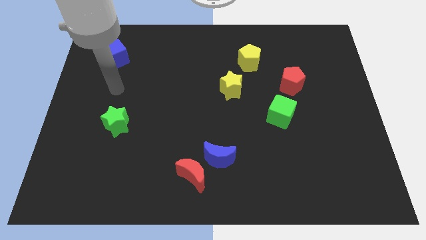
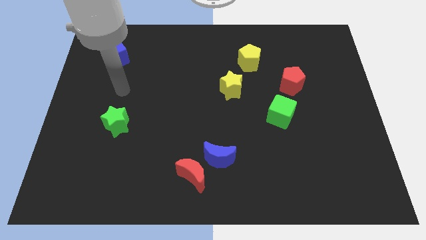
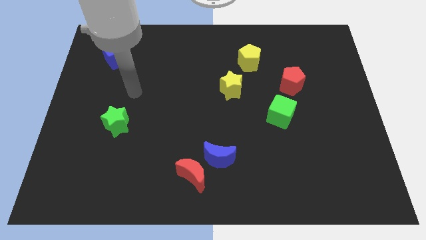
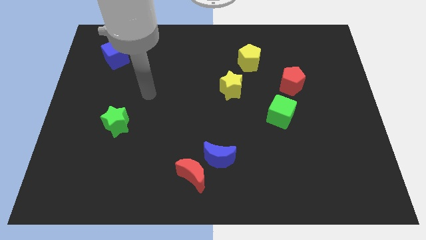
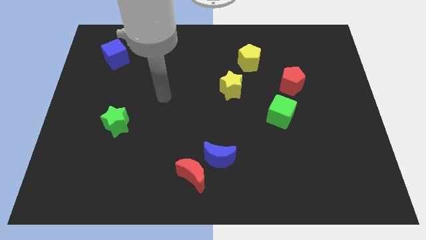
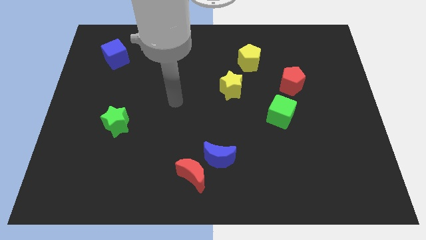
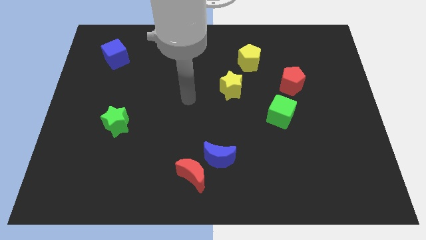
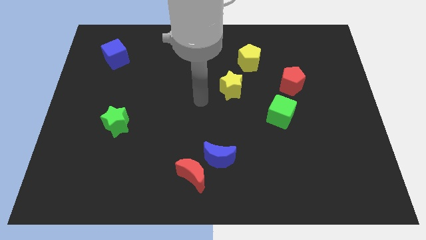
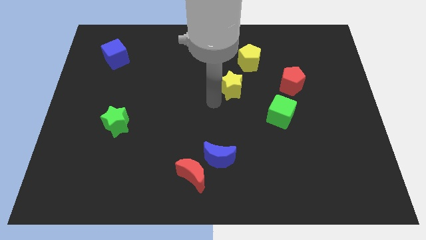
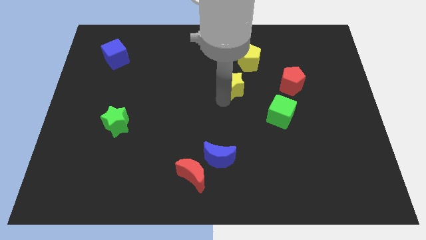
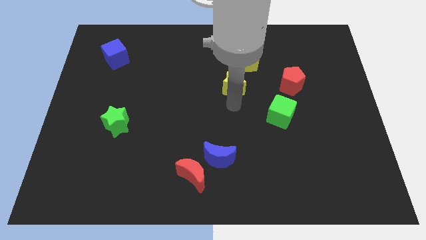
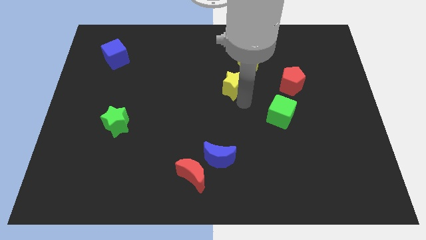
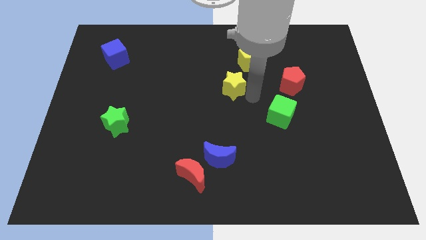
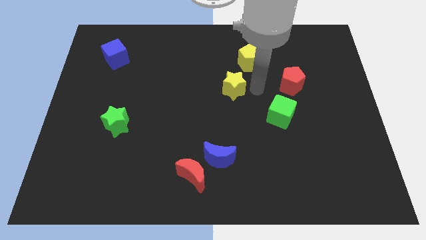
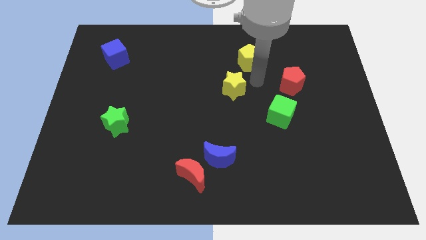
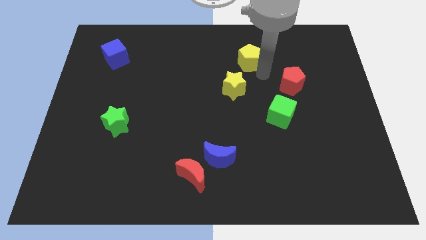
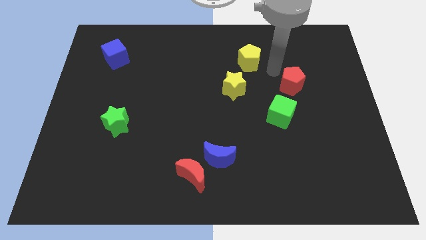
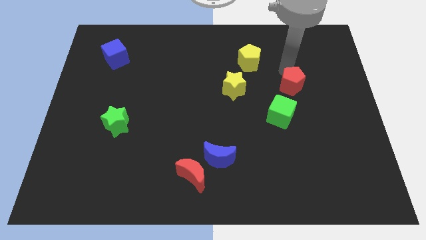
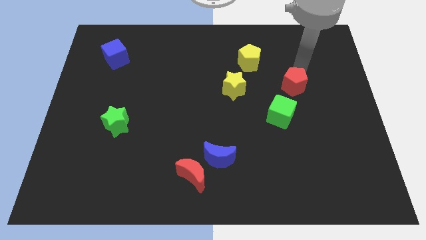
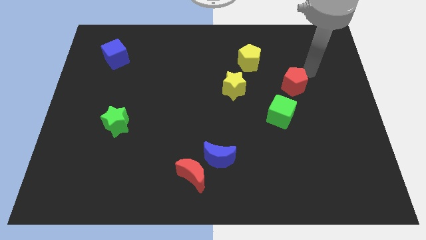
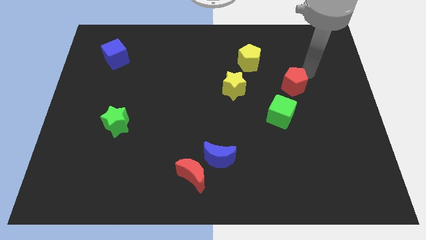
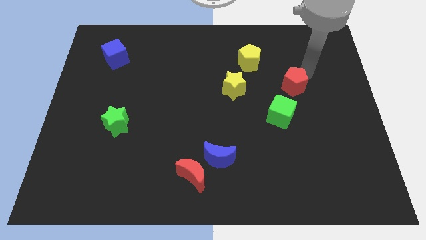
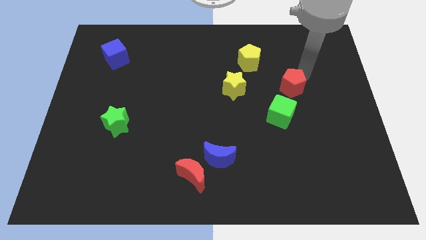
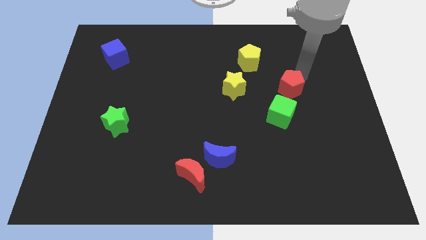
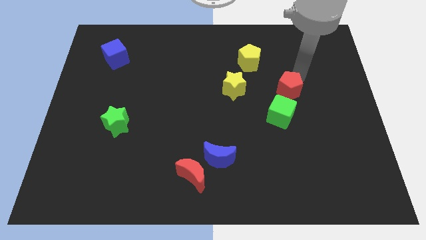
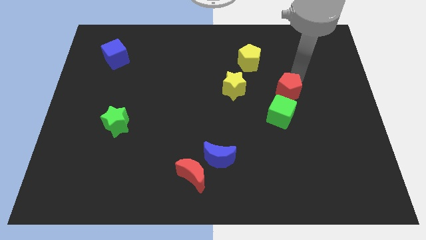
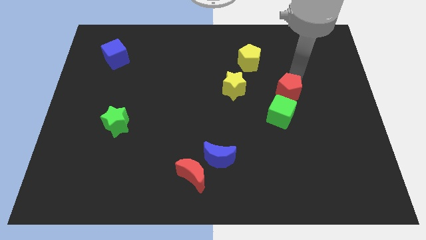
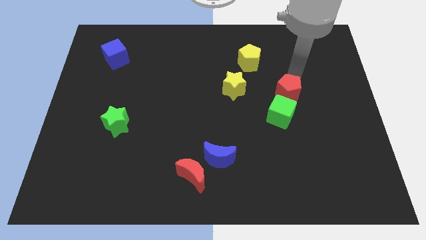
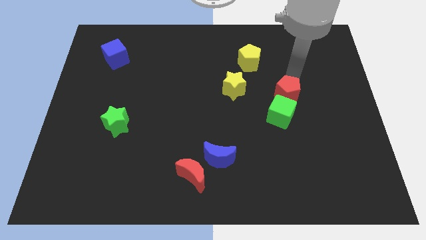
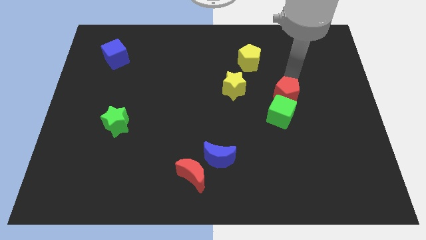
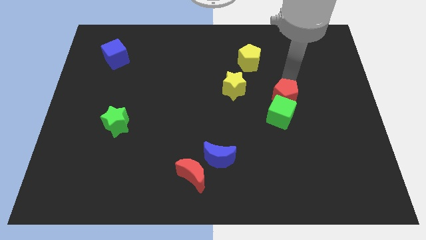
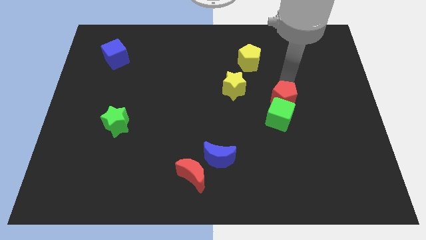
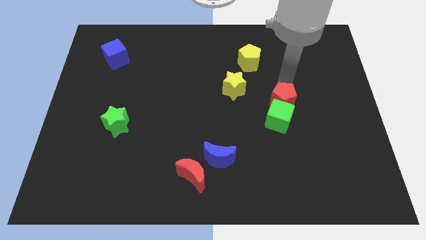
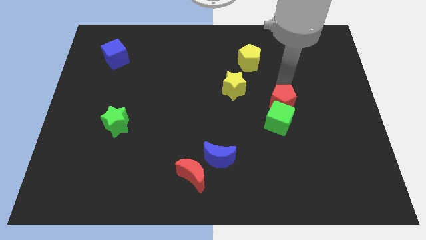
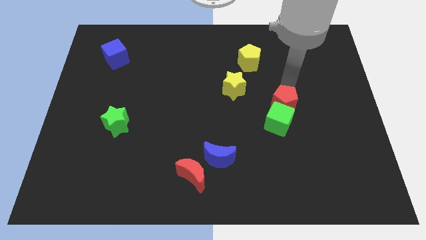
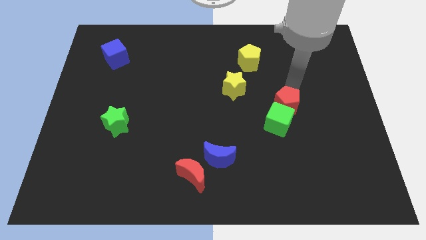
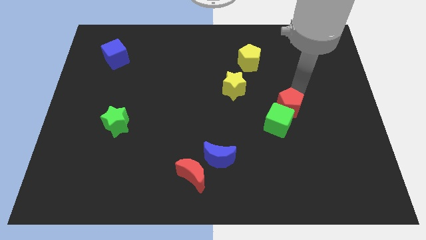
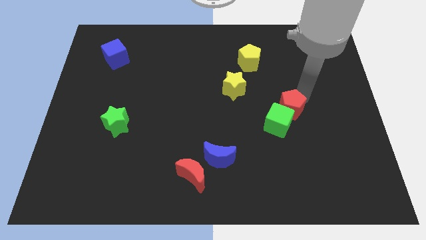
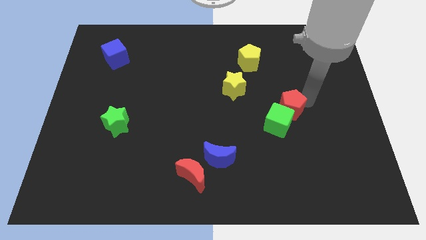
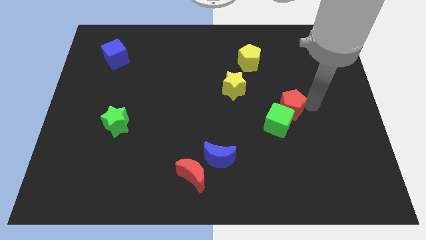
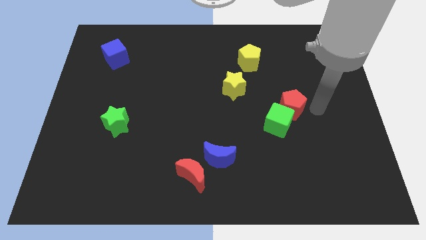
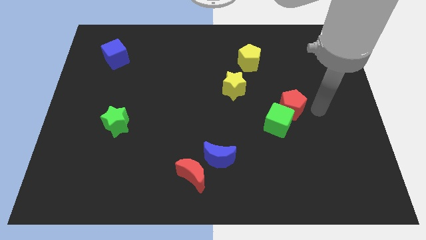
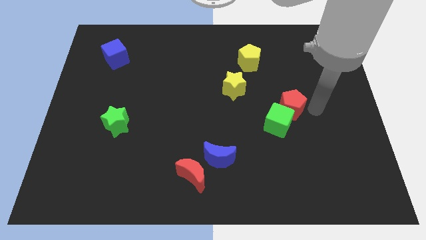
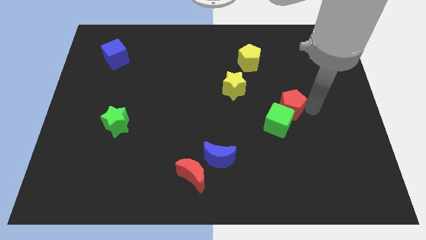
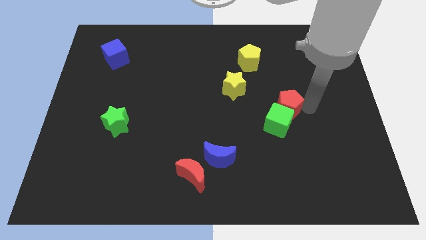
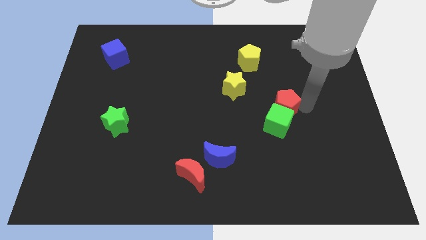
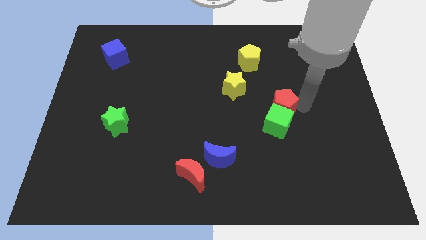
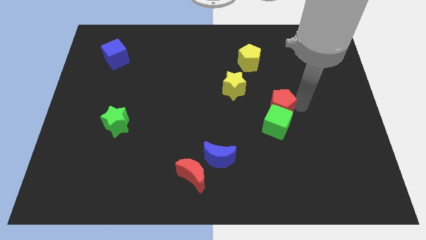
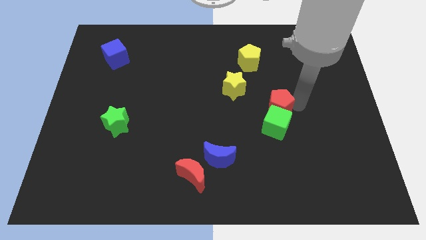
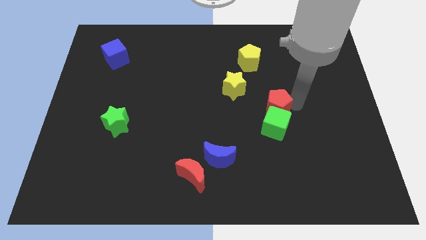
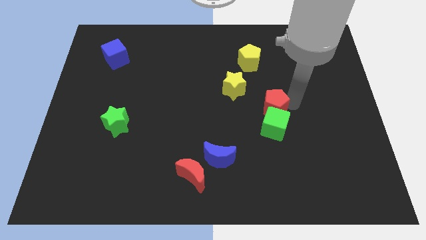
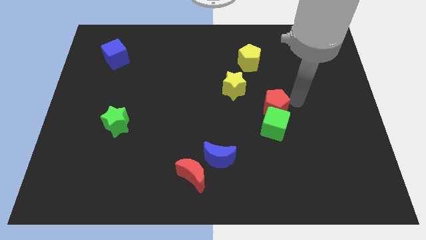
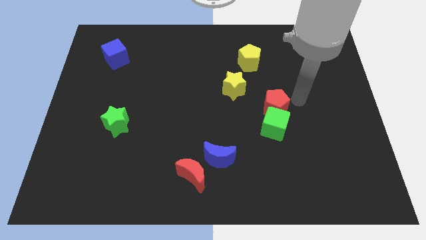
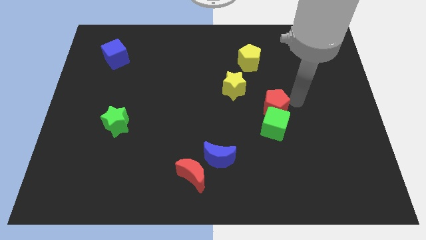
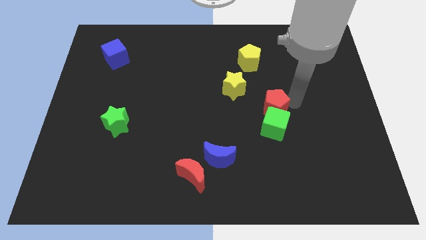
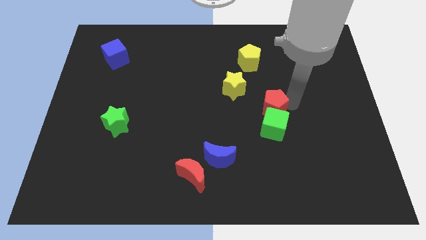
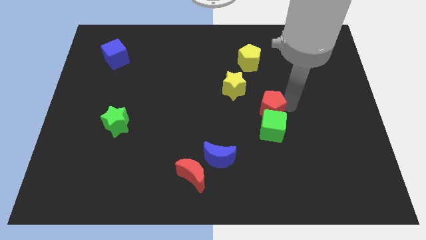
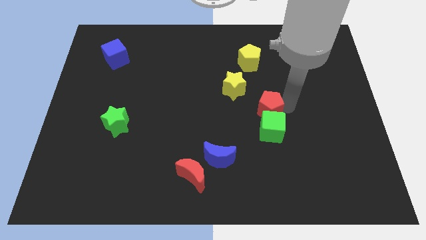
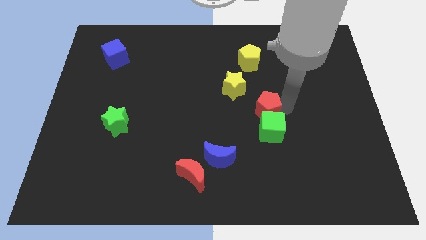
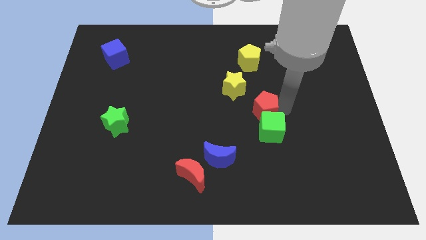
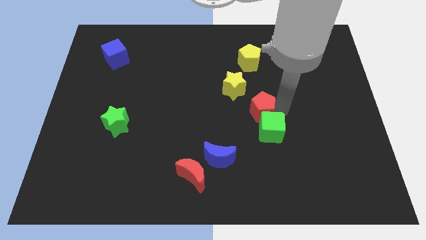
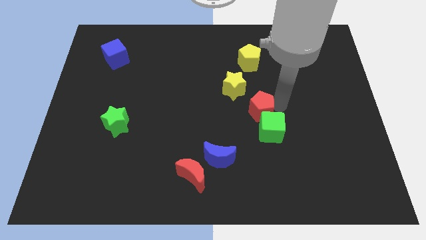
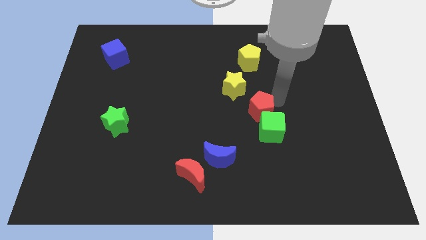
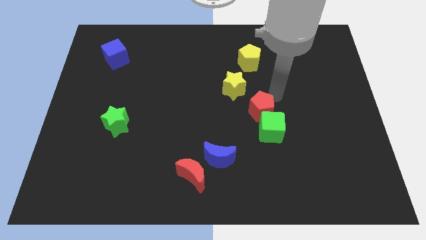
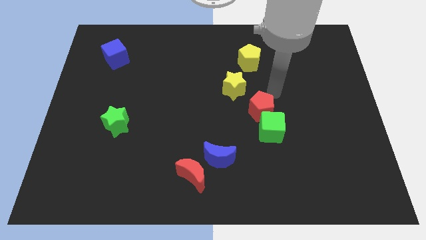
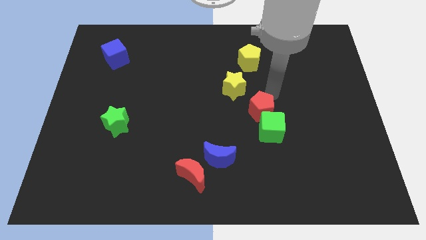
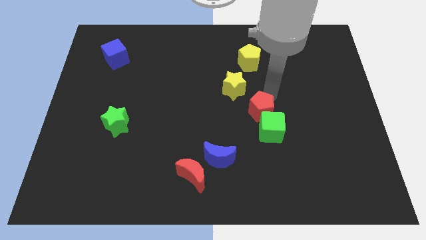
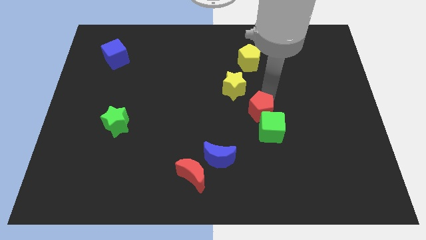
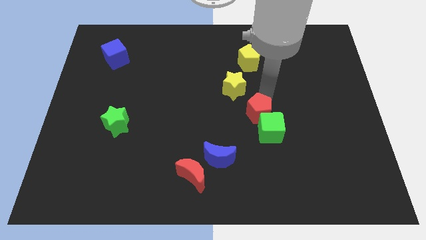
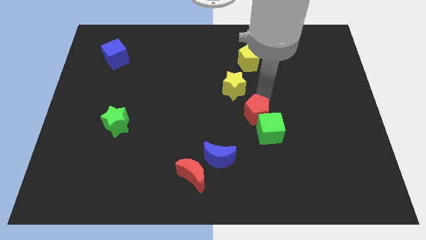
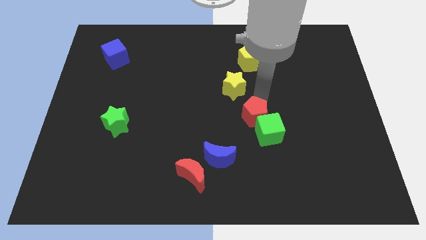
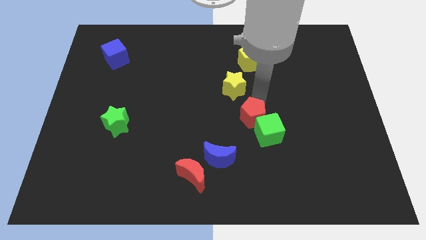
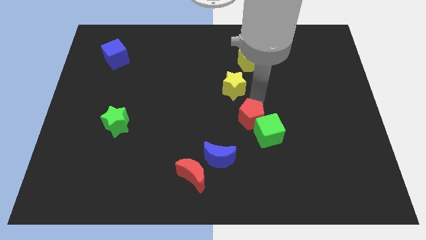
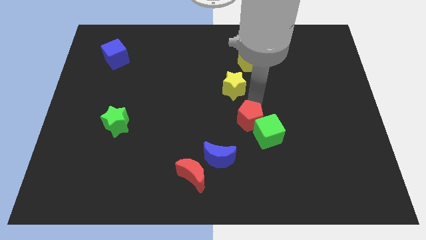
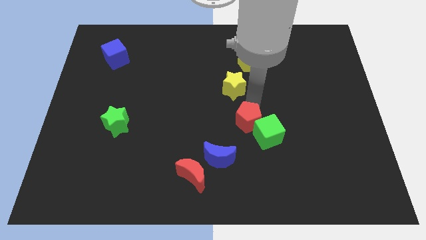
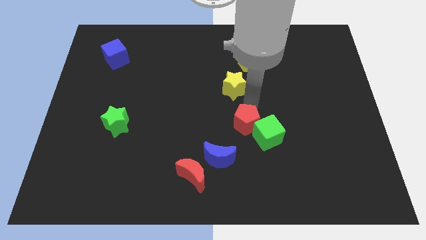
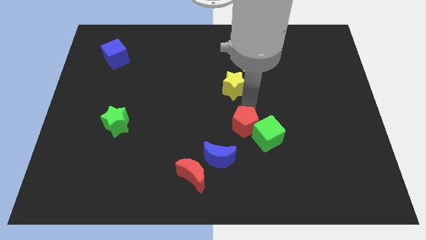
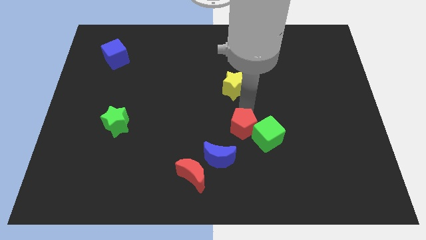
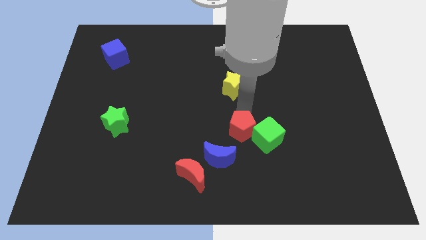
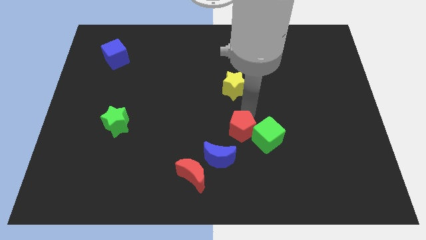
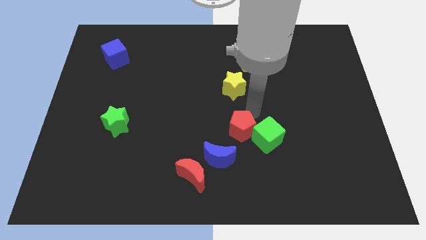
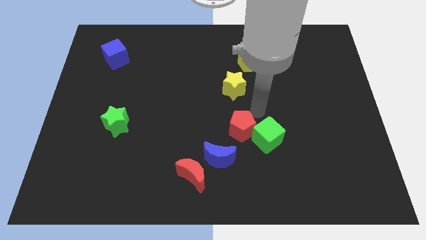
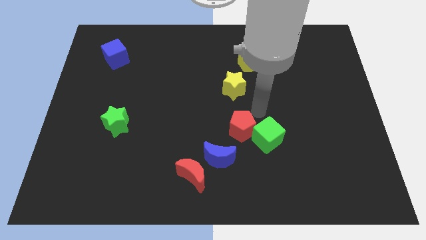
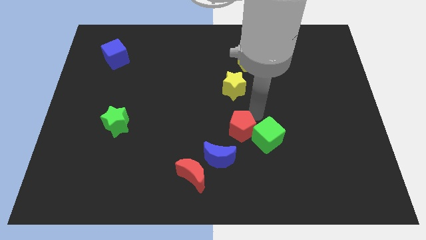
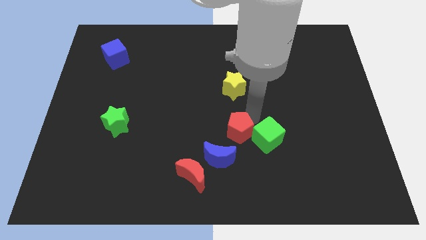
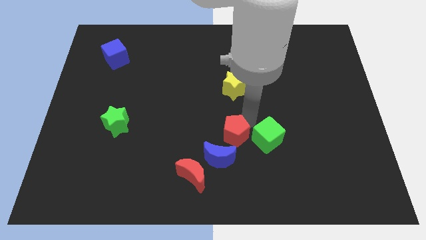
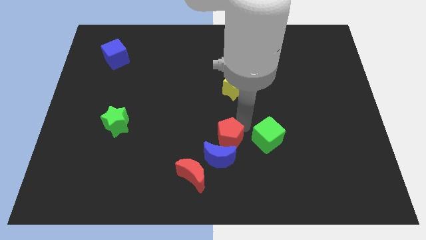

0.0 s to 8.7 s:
push the red pentagon close to the blue moon
